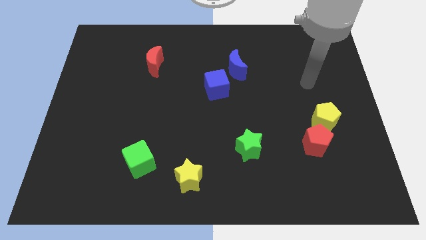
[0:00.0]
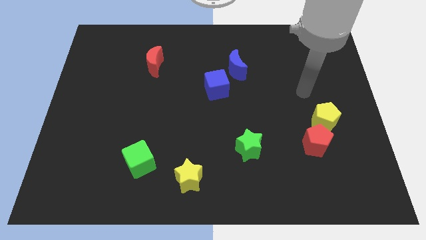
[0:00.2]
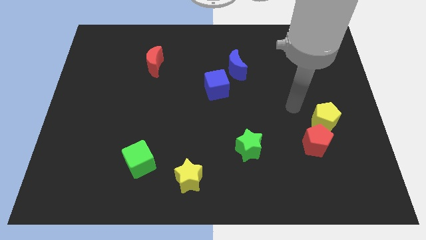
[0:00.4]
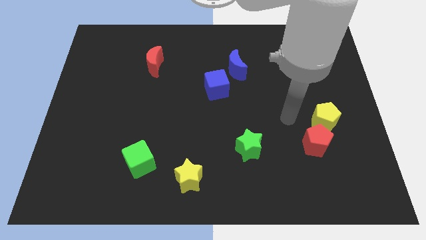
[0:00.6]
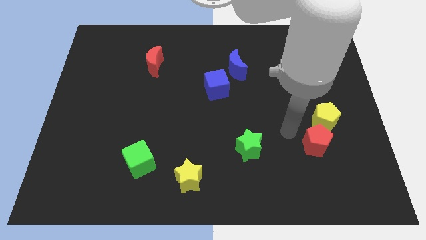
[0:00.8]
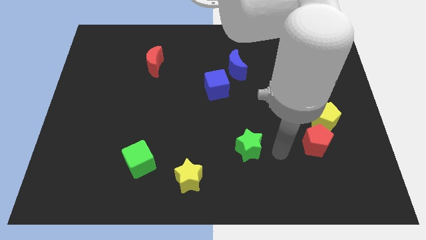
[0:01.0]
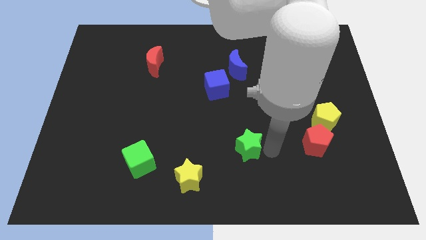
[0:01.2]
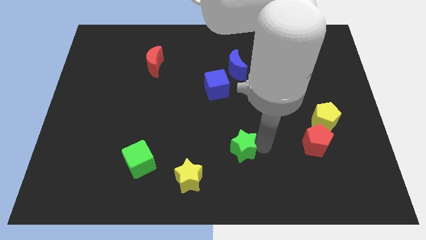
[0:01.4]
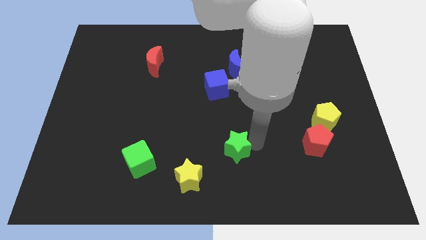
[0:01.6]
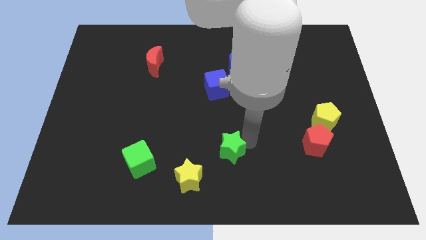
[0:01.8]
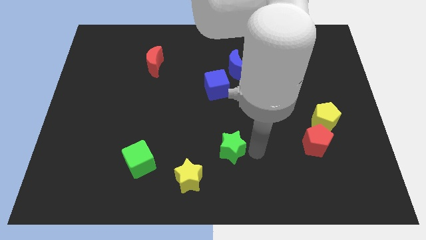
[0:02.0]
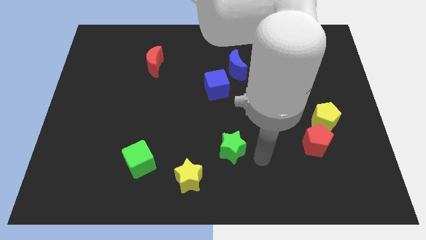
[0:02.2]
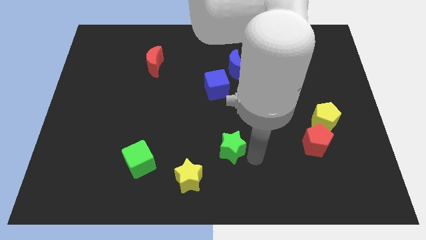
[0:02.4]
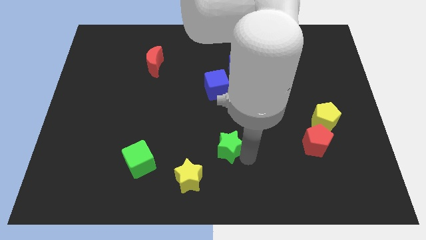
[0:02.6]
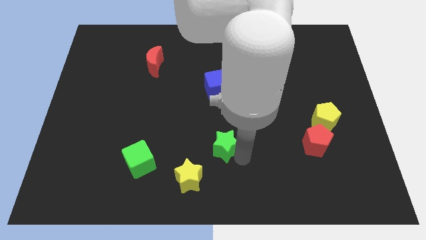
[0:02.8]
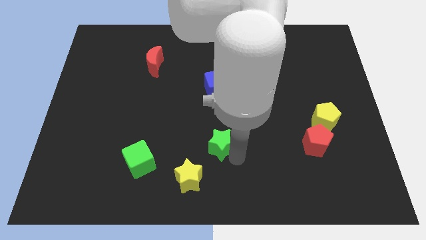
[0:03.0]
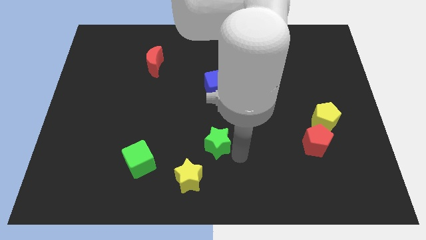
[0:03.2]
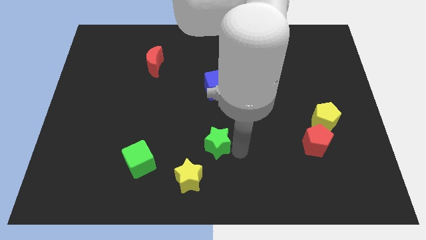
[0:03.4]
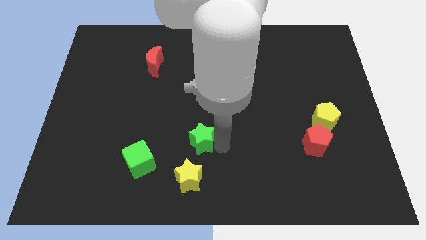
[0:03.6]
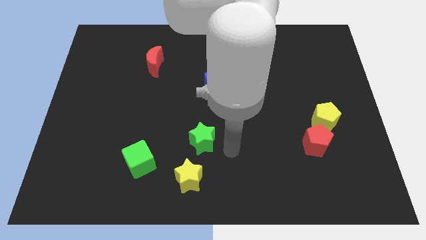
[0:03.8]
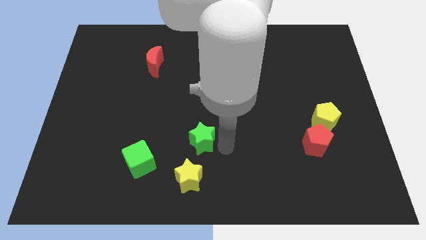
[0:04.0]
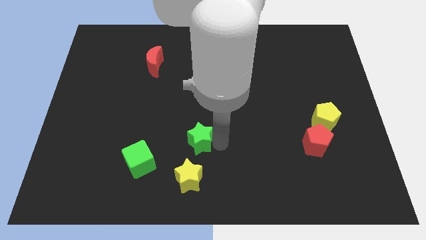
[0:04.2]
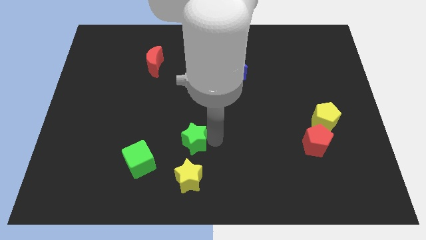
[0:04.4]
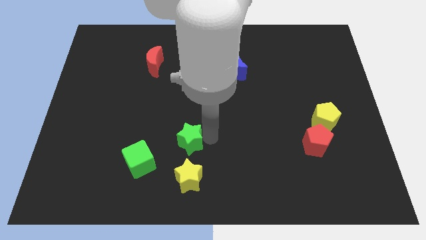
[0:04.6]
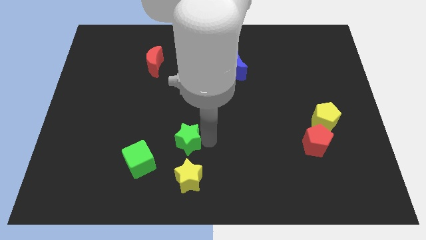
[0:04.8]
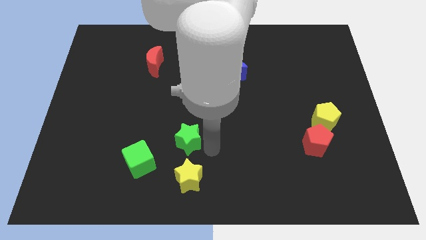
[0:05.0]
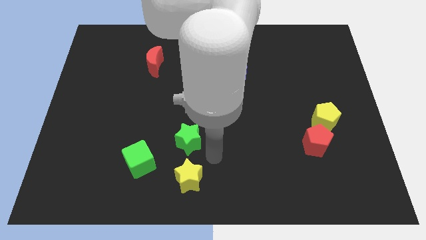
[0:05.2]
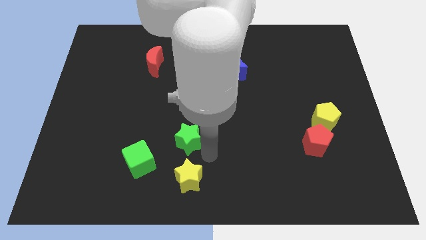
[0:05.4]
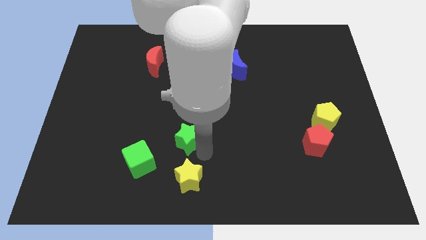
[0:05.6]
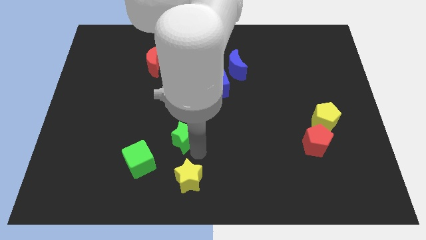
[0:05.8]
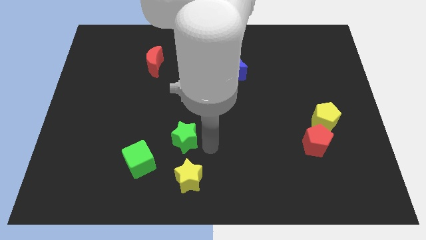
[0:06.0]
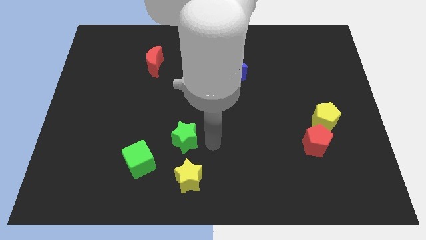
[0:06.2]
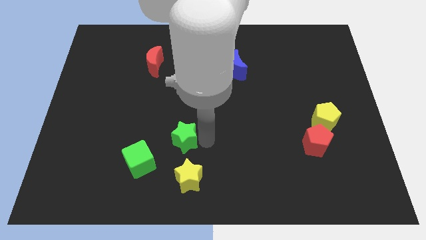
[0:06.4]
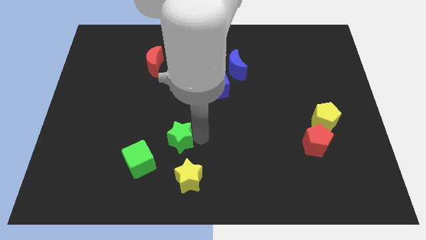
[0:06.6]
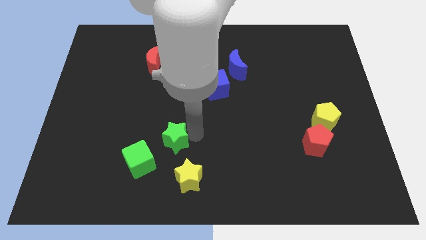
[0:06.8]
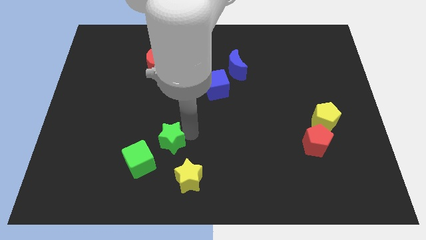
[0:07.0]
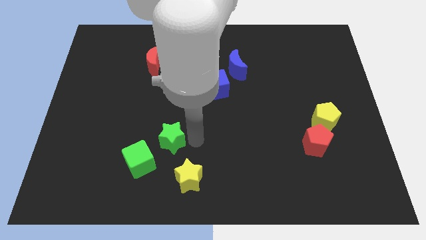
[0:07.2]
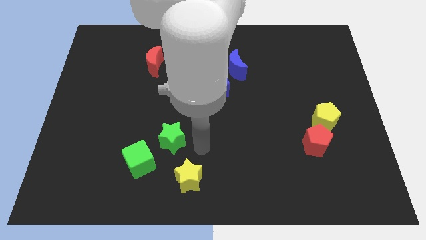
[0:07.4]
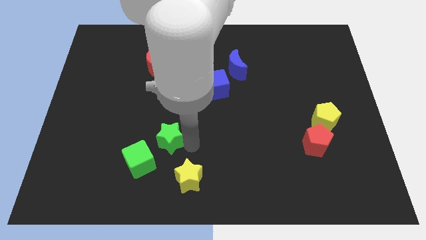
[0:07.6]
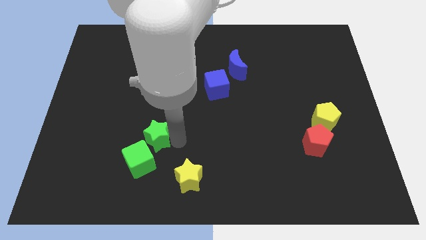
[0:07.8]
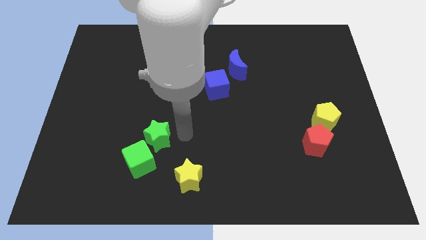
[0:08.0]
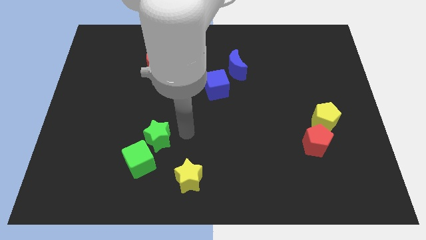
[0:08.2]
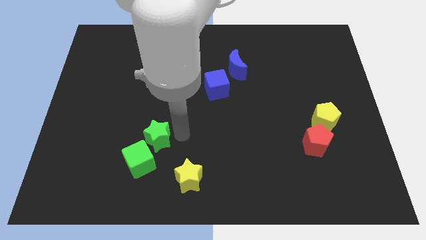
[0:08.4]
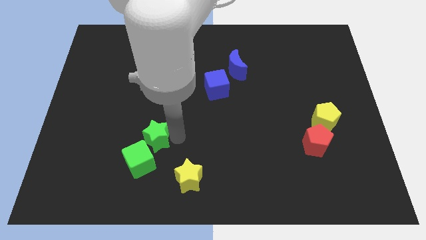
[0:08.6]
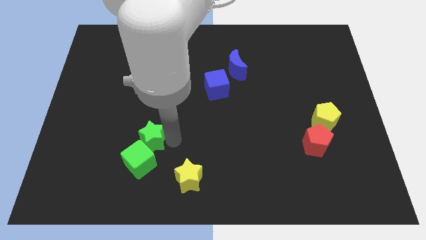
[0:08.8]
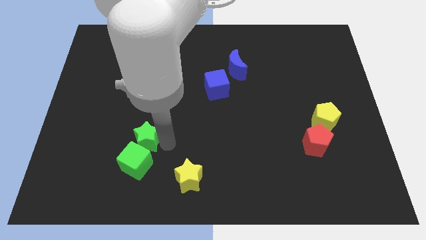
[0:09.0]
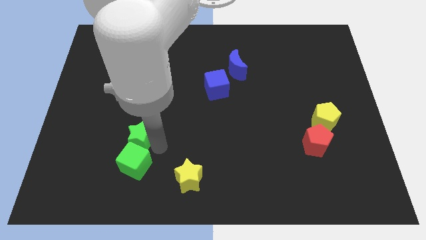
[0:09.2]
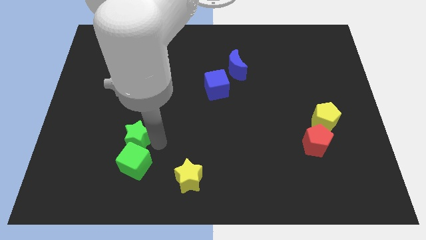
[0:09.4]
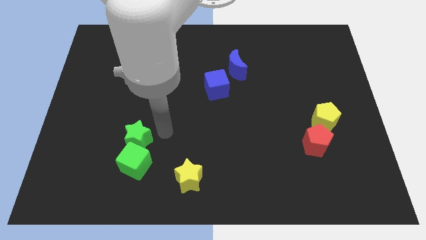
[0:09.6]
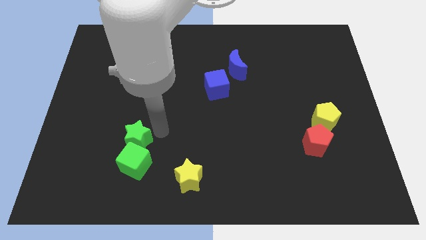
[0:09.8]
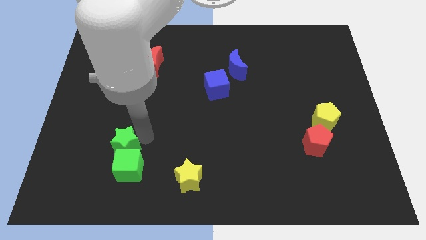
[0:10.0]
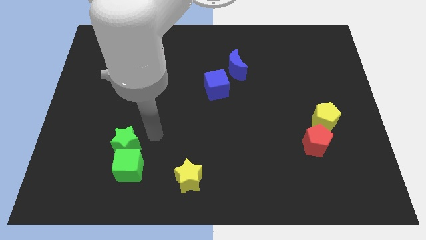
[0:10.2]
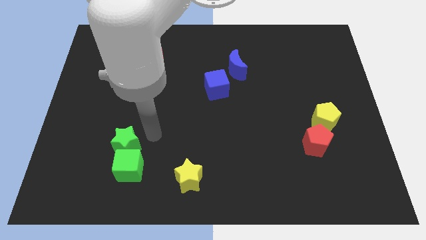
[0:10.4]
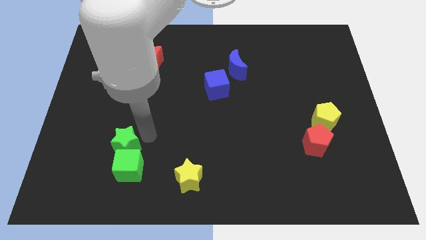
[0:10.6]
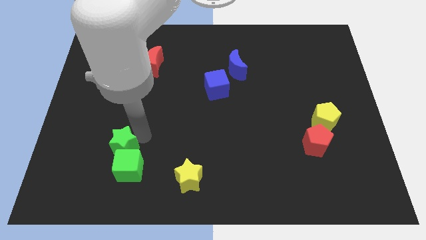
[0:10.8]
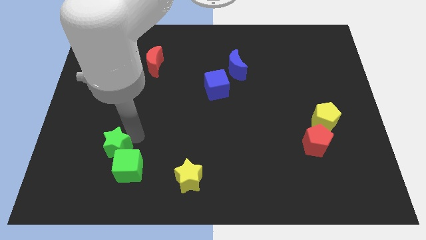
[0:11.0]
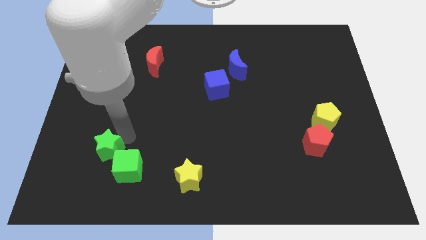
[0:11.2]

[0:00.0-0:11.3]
slide the green star just left of the green cube

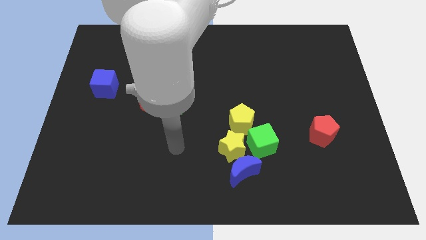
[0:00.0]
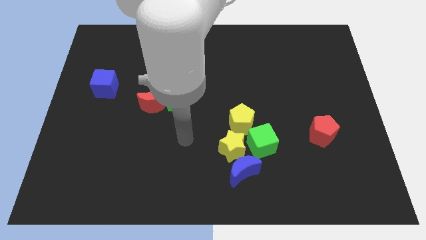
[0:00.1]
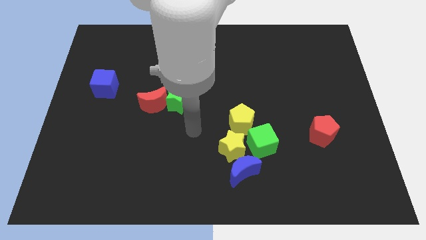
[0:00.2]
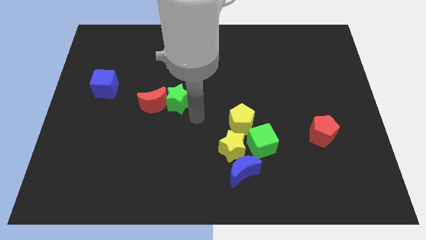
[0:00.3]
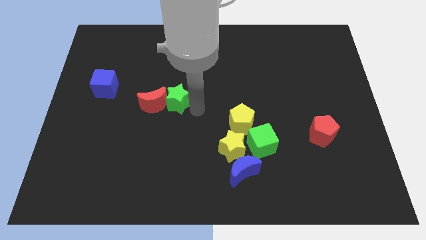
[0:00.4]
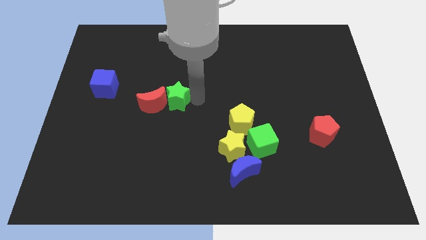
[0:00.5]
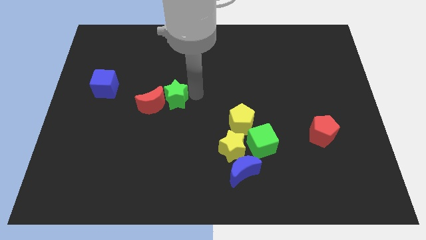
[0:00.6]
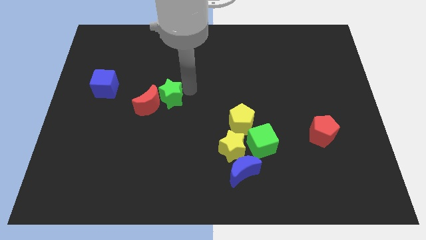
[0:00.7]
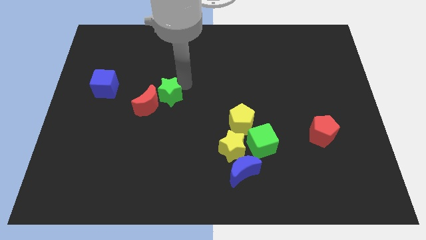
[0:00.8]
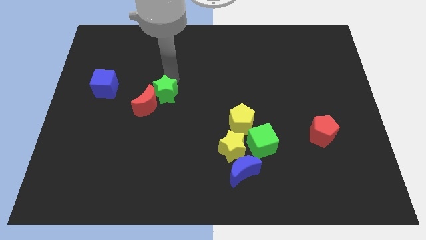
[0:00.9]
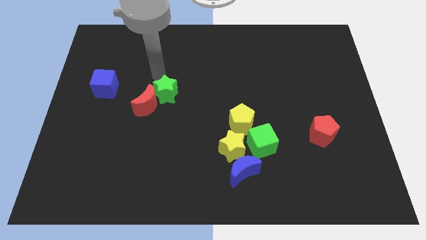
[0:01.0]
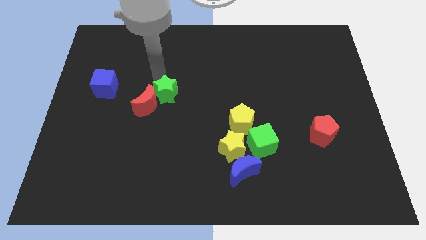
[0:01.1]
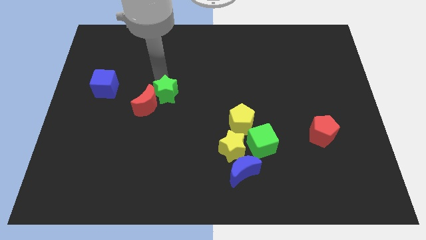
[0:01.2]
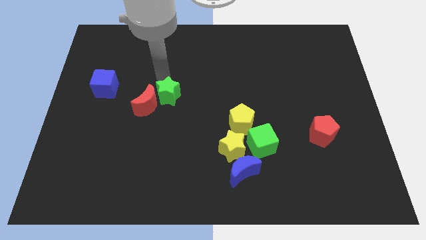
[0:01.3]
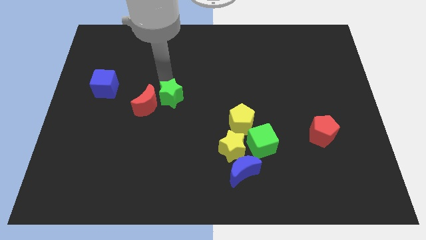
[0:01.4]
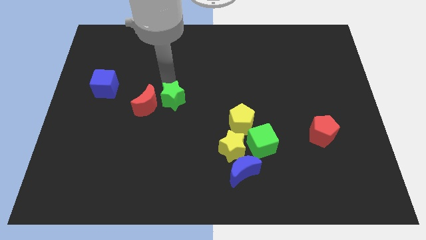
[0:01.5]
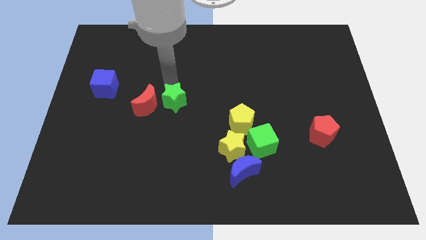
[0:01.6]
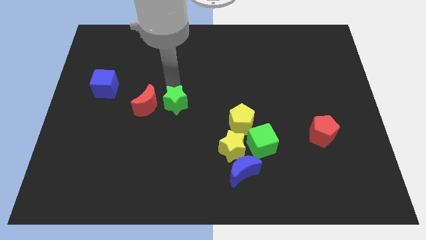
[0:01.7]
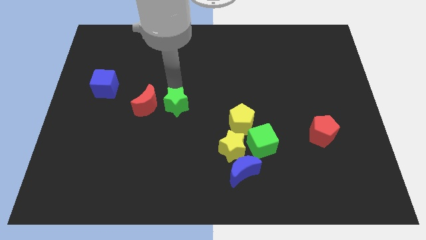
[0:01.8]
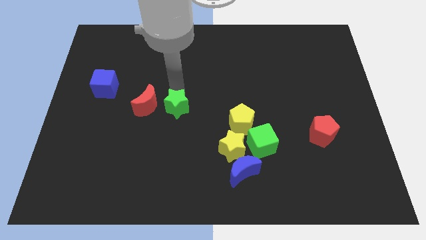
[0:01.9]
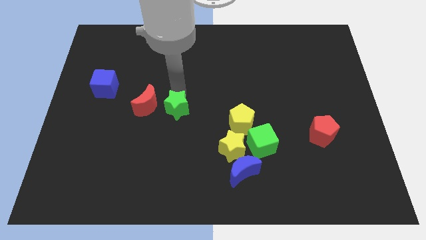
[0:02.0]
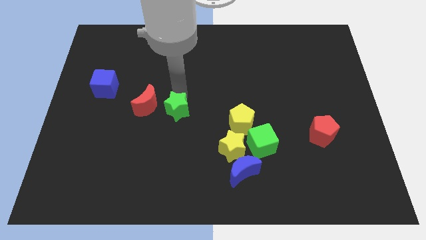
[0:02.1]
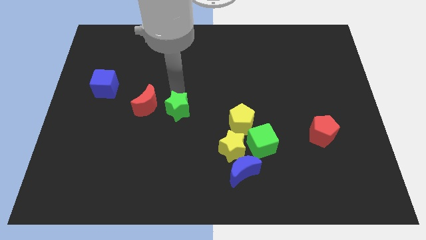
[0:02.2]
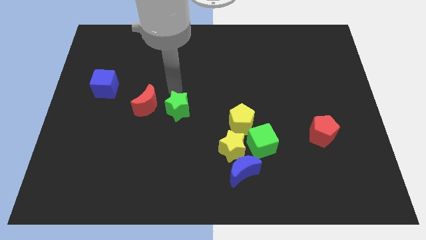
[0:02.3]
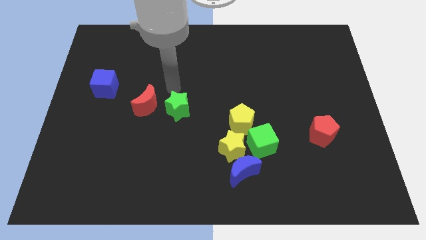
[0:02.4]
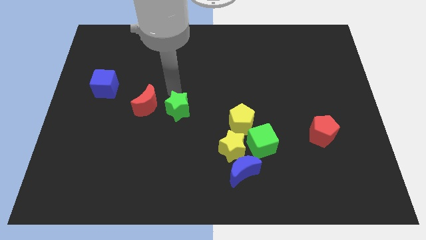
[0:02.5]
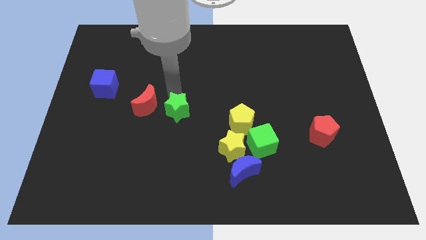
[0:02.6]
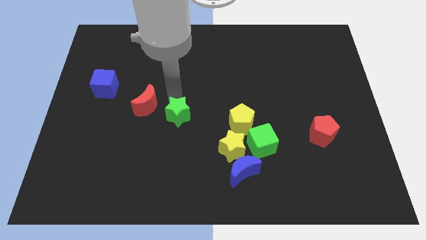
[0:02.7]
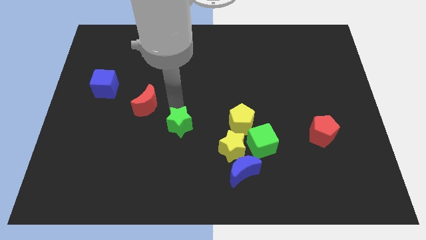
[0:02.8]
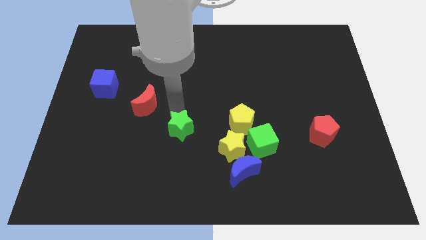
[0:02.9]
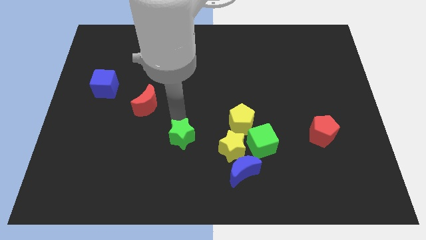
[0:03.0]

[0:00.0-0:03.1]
put the green star left of the yellow star
